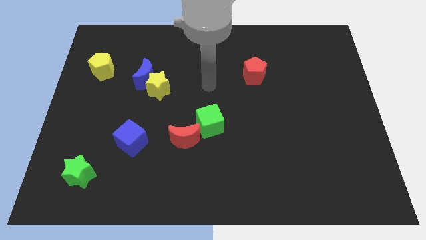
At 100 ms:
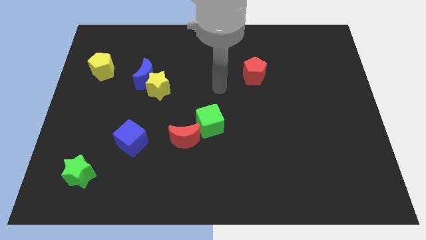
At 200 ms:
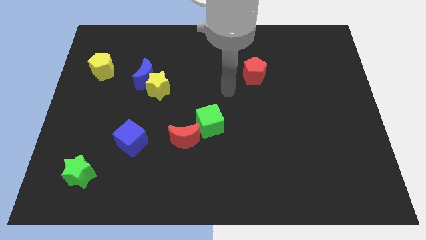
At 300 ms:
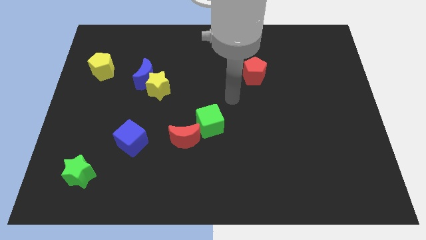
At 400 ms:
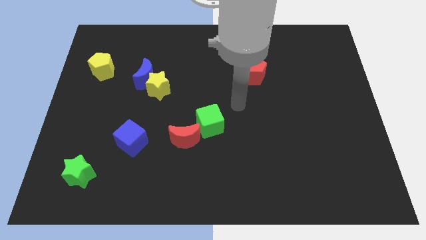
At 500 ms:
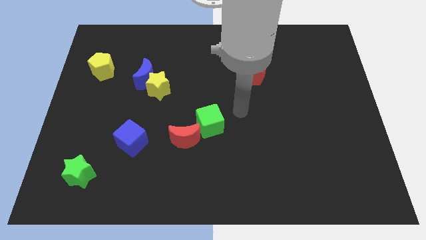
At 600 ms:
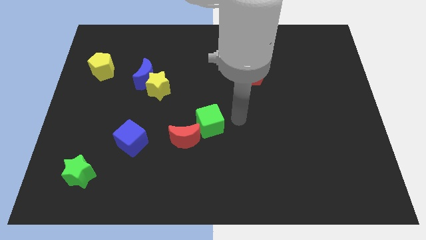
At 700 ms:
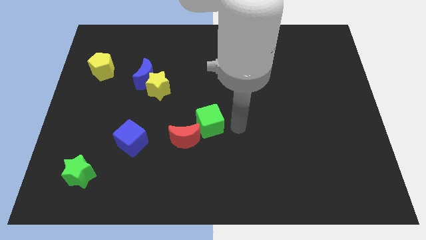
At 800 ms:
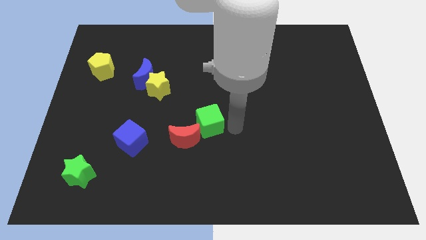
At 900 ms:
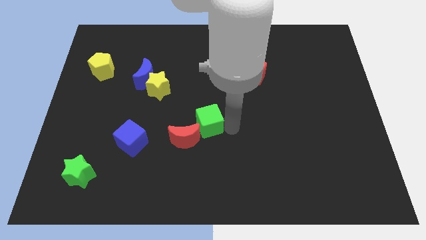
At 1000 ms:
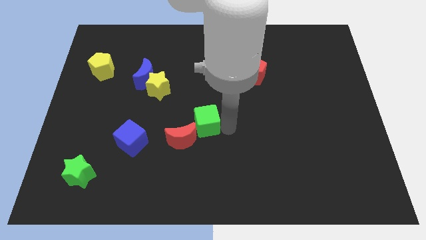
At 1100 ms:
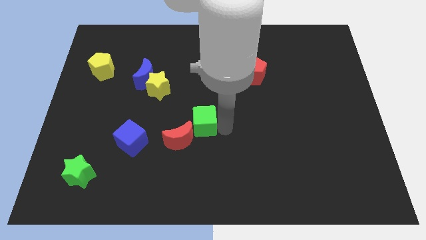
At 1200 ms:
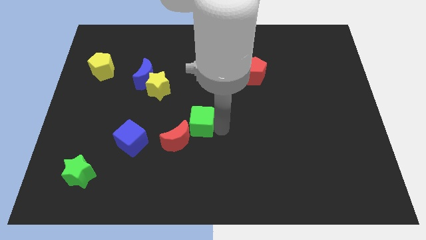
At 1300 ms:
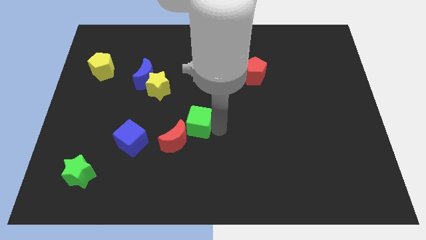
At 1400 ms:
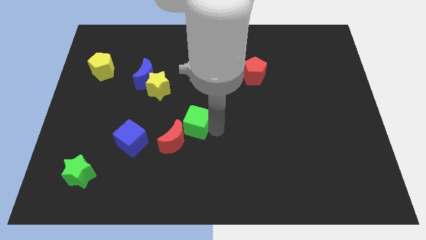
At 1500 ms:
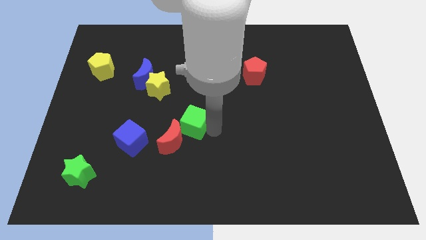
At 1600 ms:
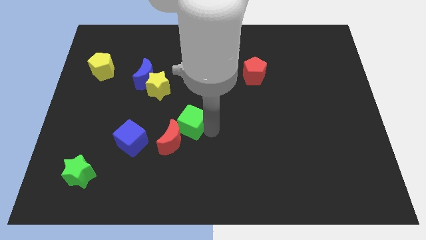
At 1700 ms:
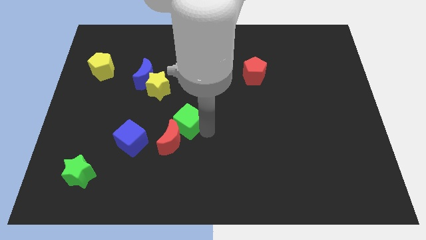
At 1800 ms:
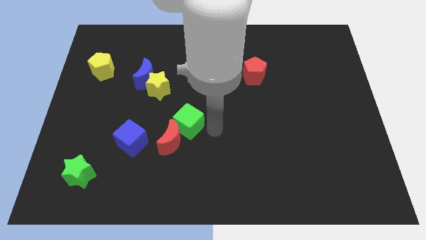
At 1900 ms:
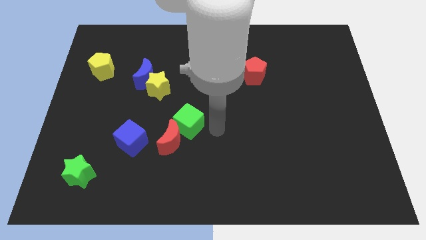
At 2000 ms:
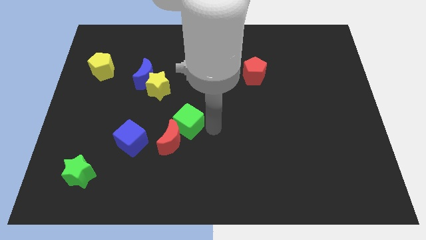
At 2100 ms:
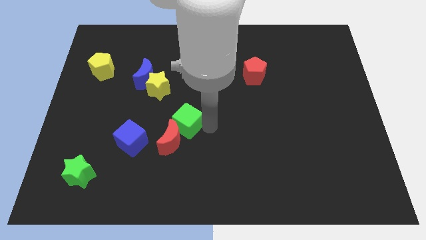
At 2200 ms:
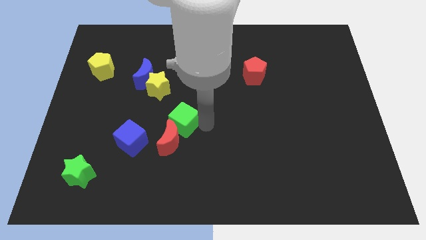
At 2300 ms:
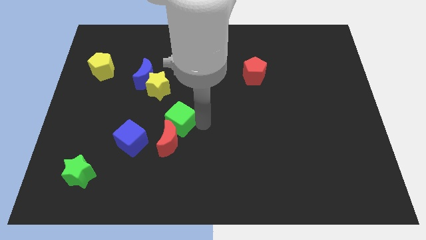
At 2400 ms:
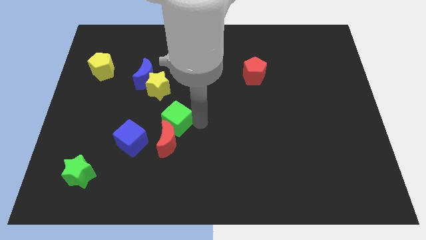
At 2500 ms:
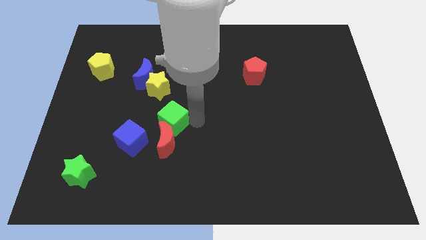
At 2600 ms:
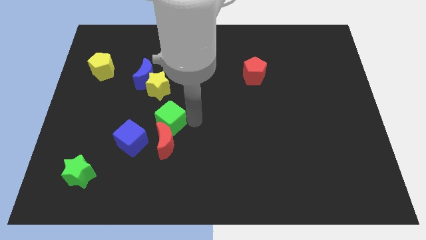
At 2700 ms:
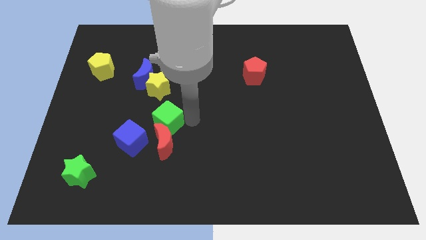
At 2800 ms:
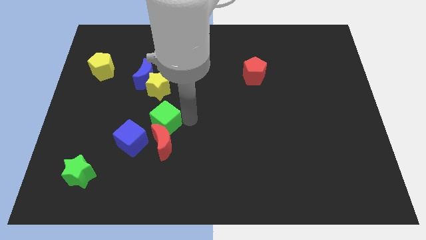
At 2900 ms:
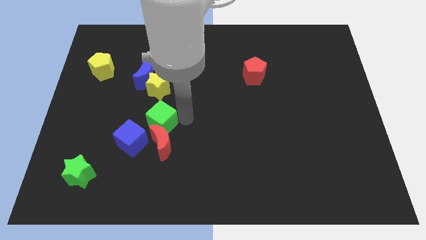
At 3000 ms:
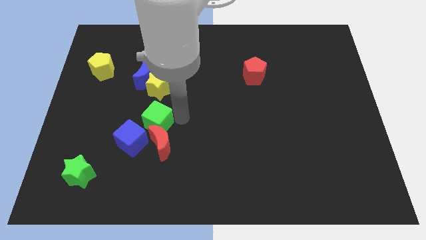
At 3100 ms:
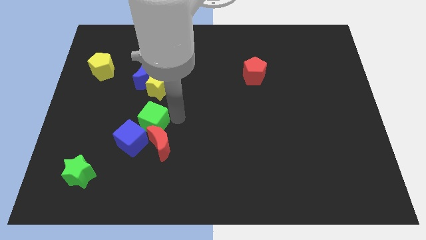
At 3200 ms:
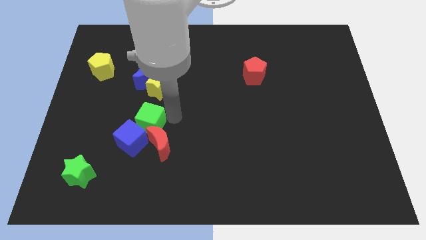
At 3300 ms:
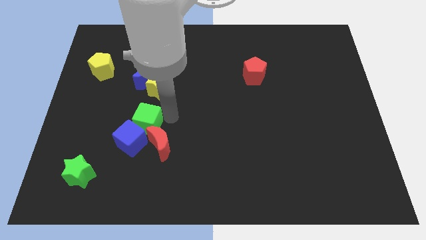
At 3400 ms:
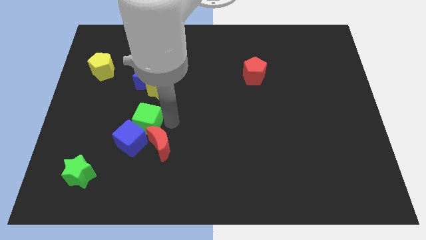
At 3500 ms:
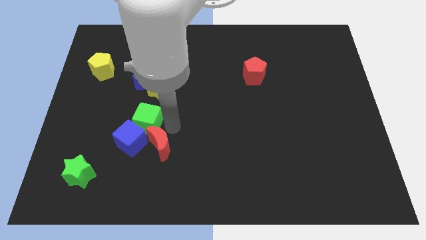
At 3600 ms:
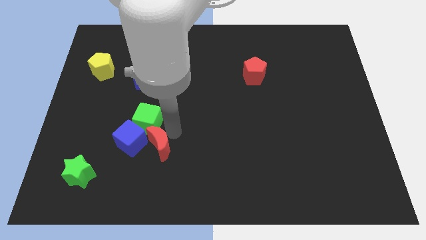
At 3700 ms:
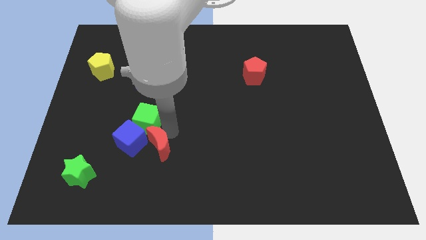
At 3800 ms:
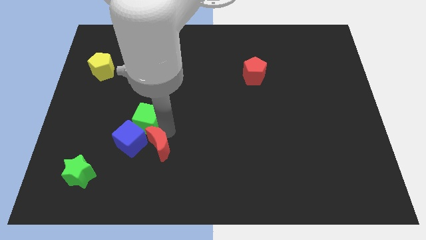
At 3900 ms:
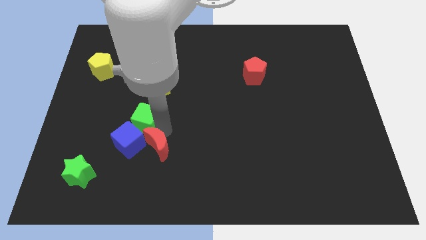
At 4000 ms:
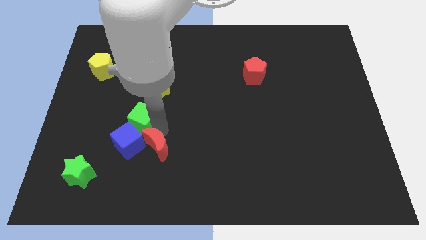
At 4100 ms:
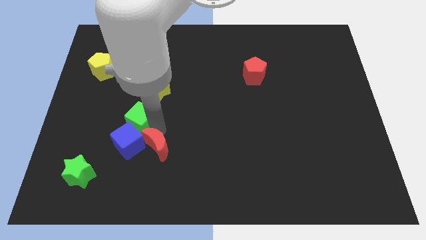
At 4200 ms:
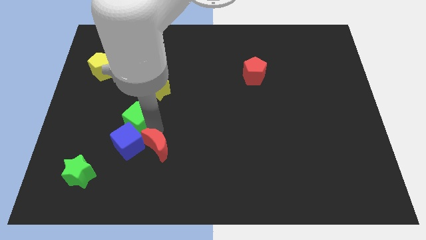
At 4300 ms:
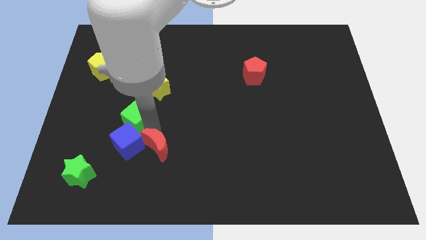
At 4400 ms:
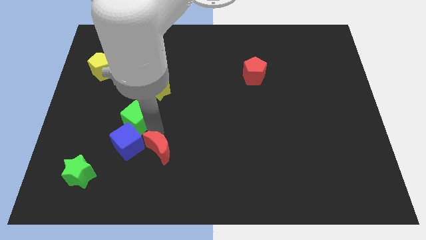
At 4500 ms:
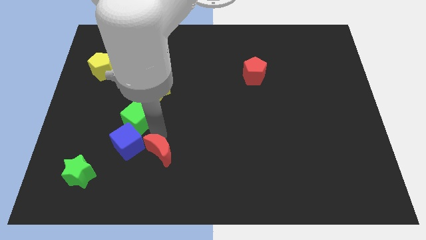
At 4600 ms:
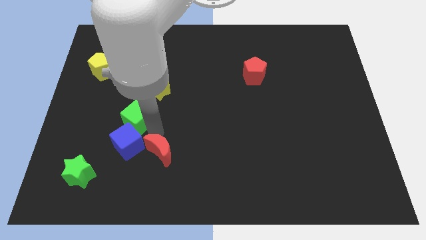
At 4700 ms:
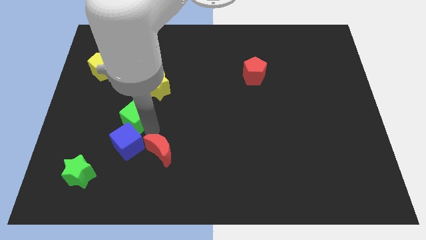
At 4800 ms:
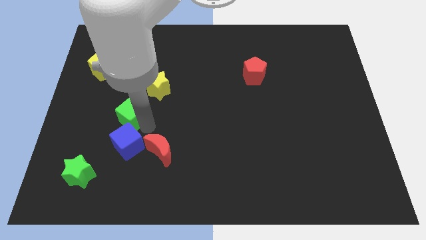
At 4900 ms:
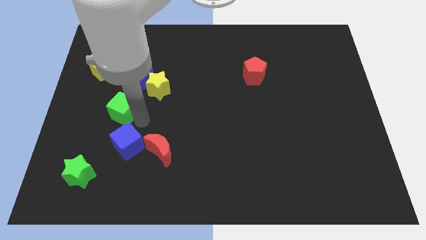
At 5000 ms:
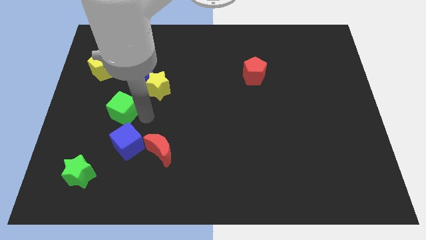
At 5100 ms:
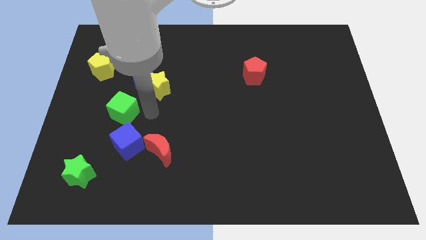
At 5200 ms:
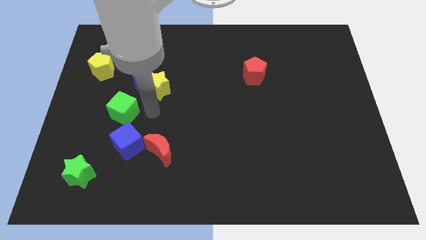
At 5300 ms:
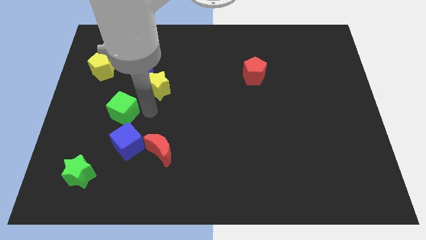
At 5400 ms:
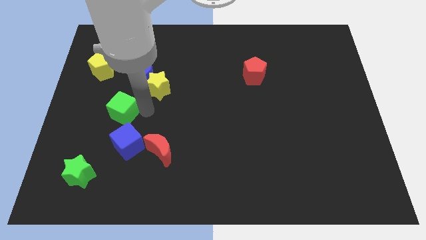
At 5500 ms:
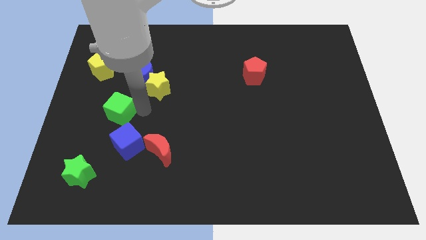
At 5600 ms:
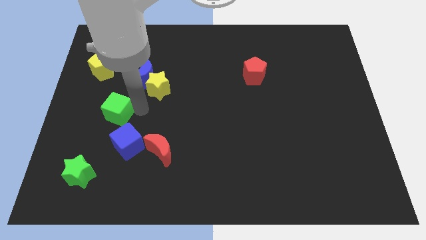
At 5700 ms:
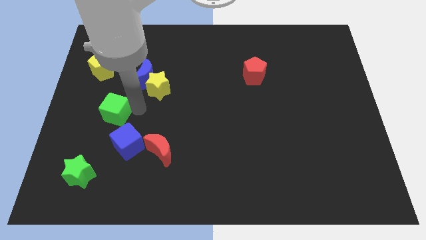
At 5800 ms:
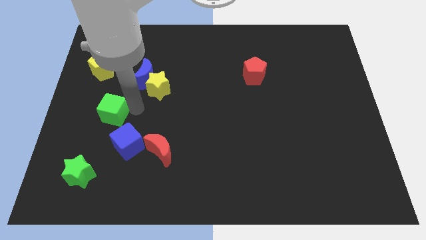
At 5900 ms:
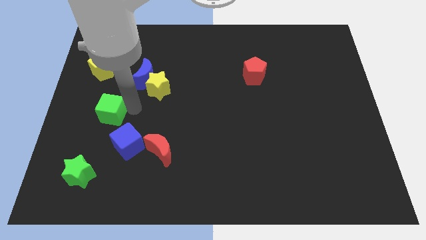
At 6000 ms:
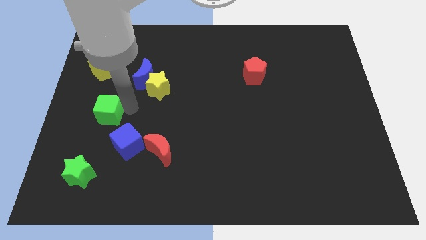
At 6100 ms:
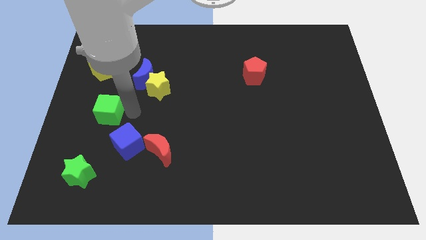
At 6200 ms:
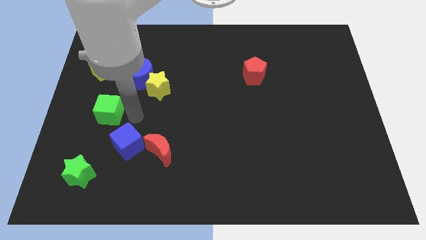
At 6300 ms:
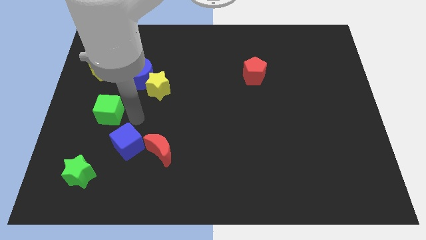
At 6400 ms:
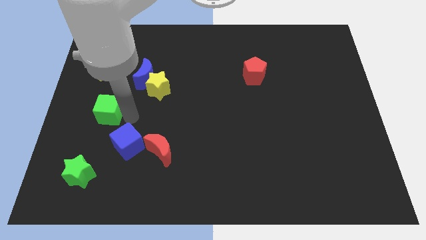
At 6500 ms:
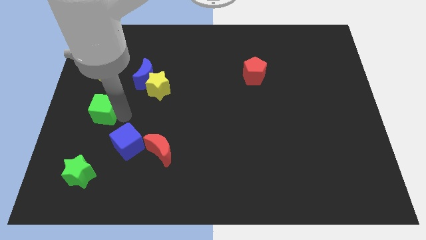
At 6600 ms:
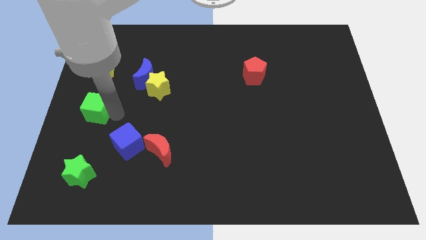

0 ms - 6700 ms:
put the green cube to the left side
